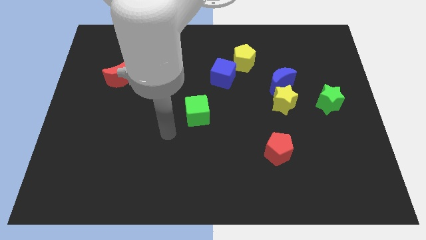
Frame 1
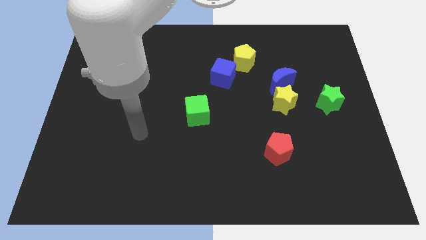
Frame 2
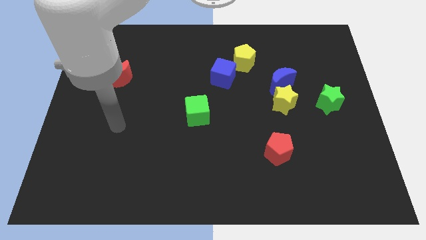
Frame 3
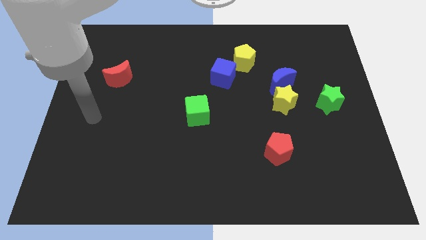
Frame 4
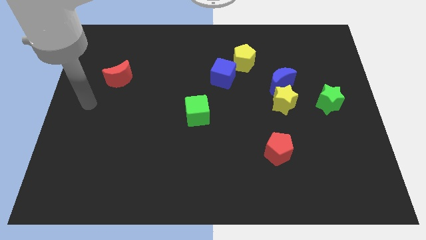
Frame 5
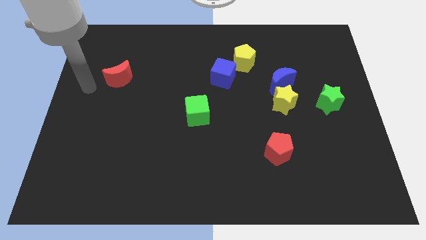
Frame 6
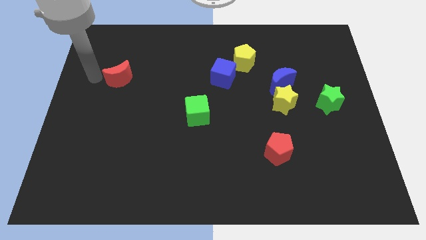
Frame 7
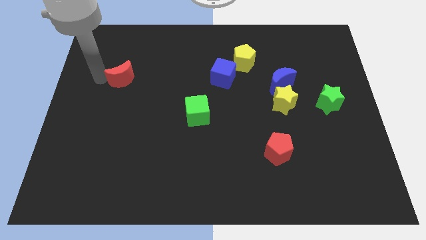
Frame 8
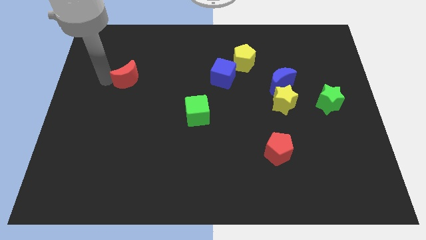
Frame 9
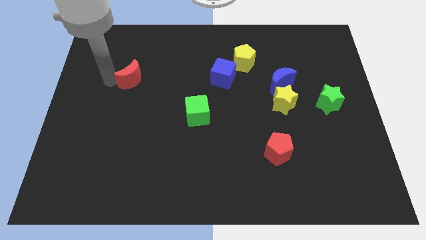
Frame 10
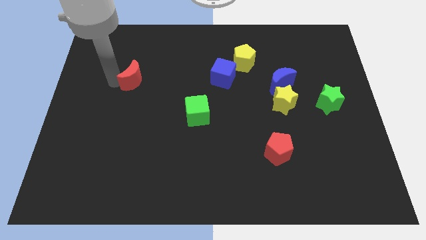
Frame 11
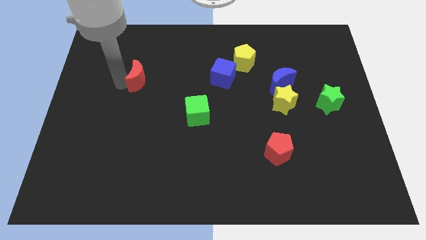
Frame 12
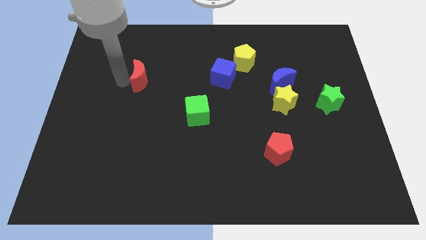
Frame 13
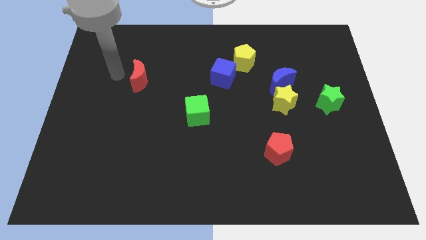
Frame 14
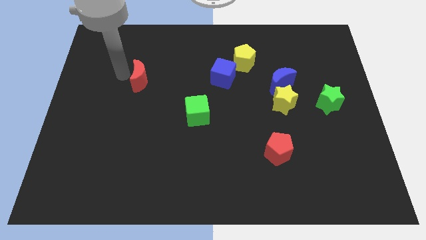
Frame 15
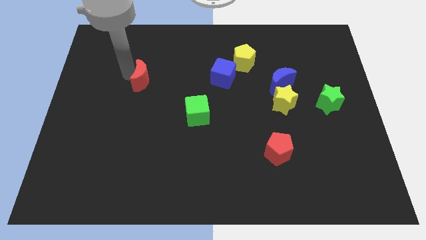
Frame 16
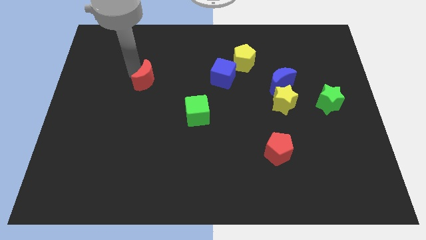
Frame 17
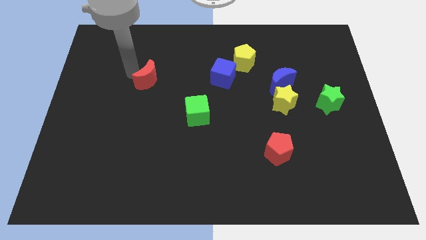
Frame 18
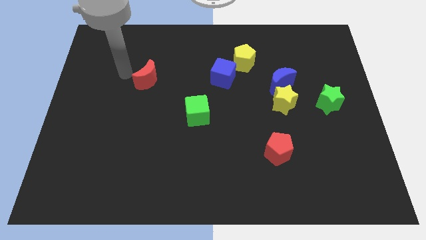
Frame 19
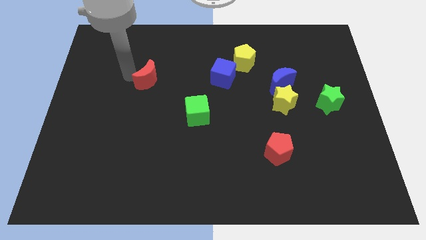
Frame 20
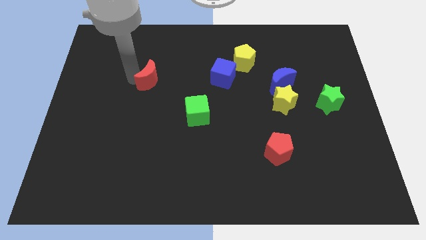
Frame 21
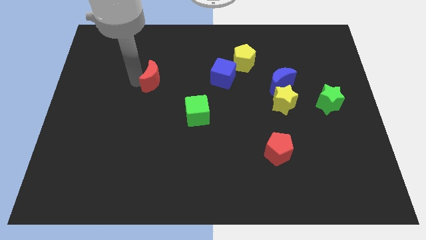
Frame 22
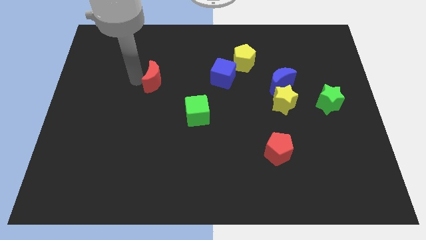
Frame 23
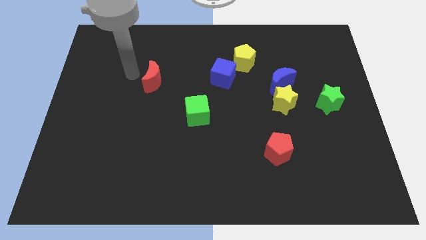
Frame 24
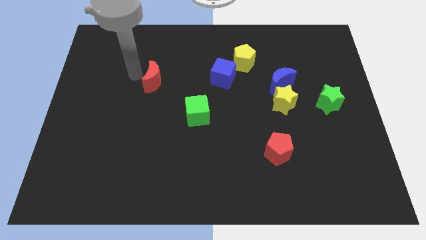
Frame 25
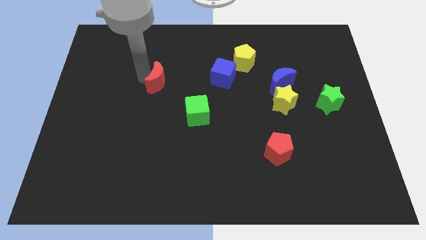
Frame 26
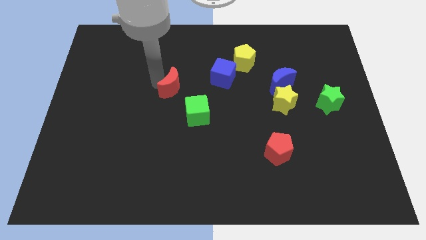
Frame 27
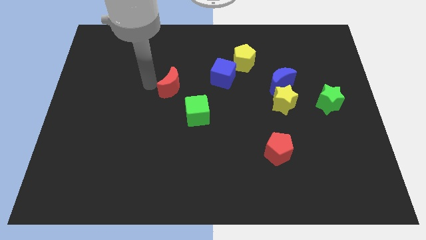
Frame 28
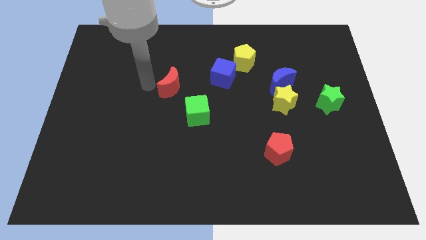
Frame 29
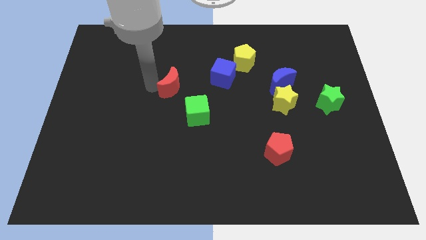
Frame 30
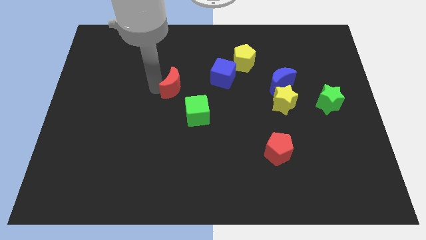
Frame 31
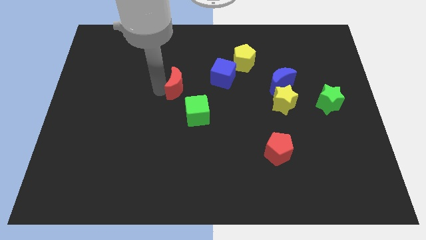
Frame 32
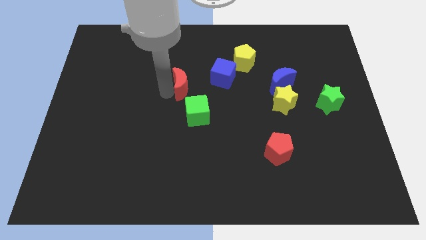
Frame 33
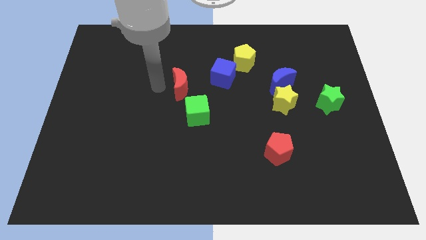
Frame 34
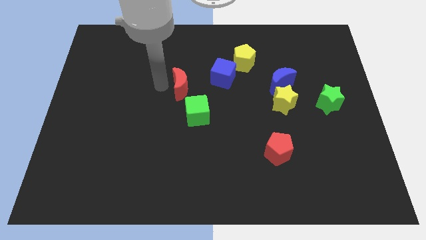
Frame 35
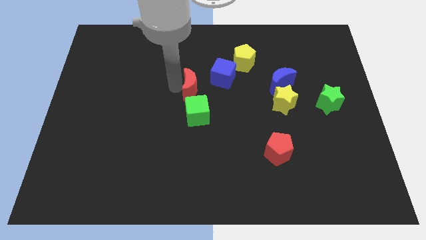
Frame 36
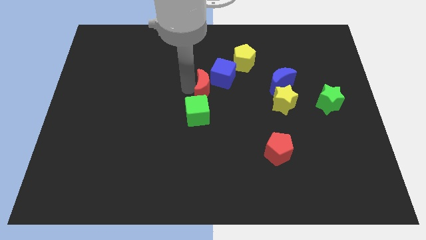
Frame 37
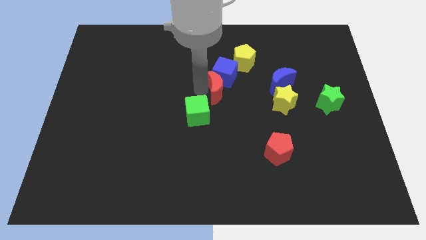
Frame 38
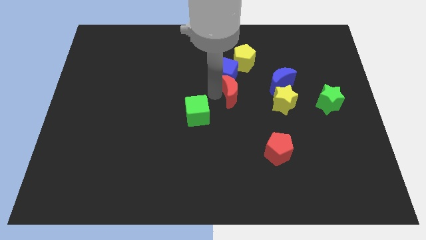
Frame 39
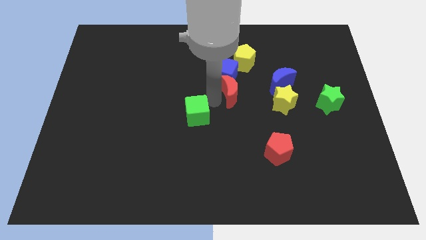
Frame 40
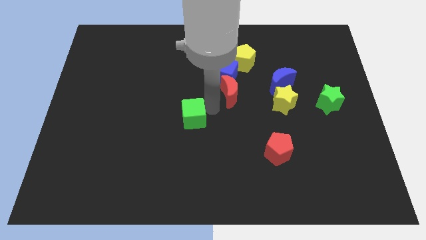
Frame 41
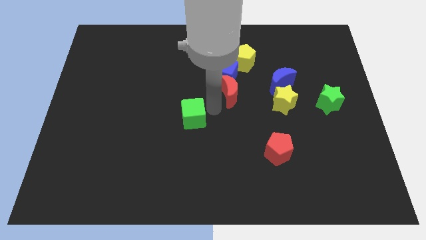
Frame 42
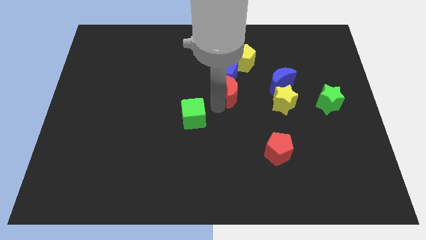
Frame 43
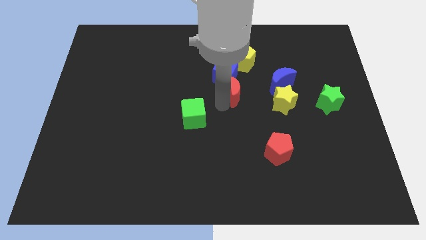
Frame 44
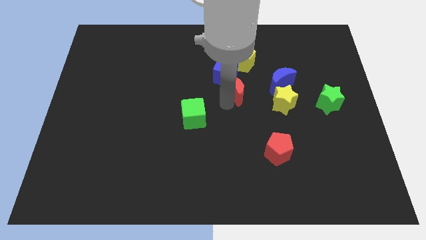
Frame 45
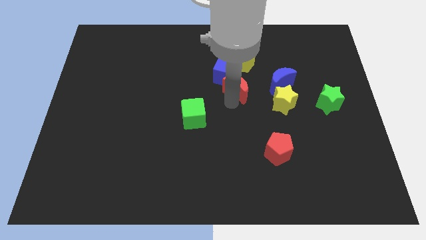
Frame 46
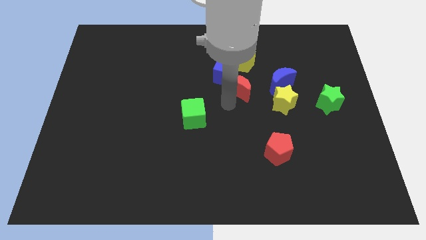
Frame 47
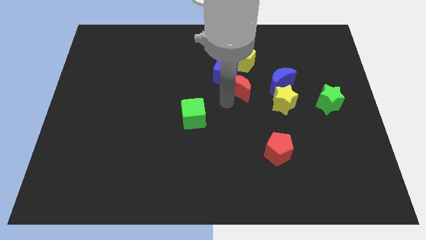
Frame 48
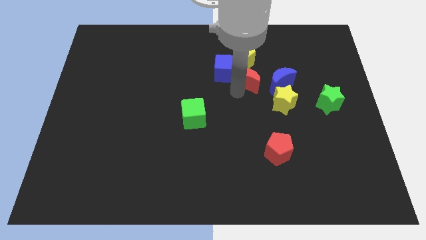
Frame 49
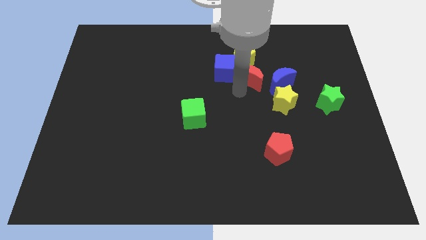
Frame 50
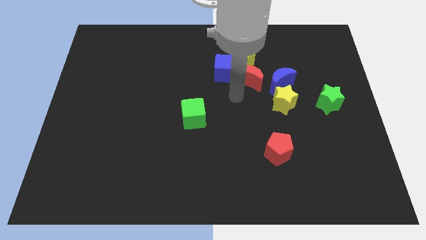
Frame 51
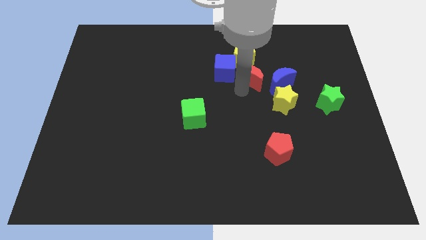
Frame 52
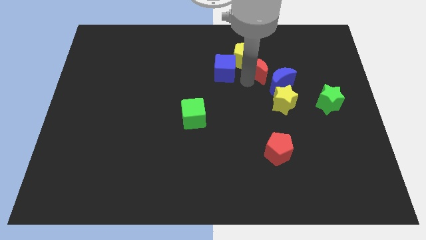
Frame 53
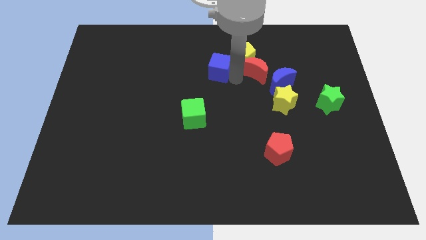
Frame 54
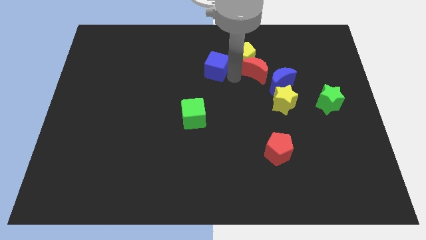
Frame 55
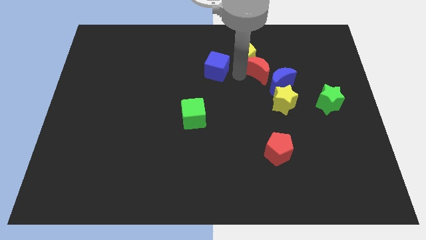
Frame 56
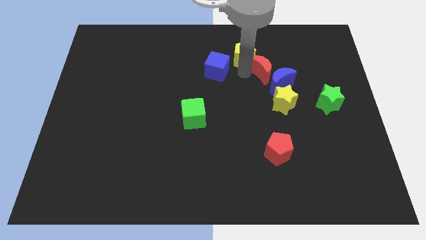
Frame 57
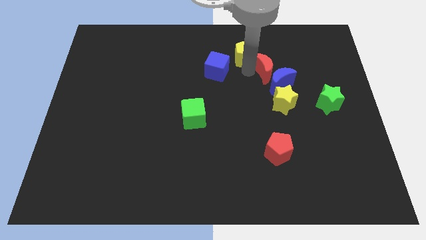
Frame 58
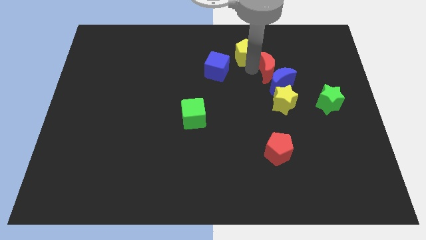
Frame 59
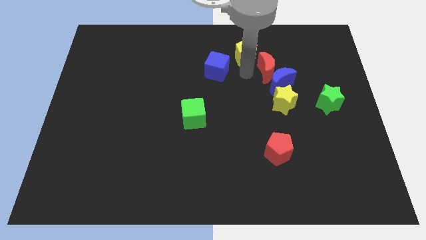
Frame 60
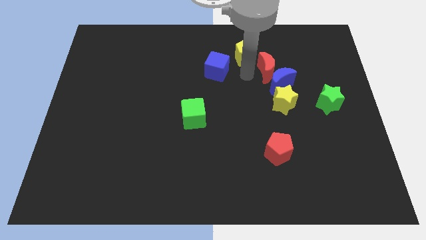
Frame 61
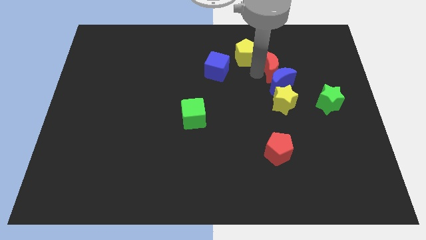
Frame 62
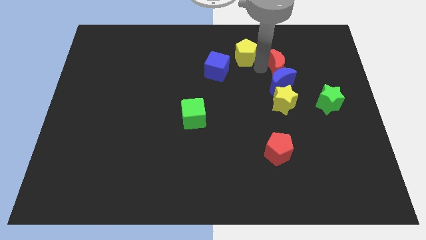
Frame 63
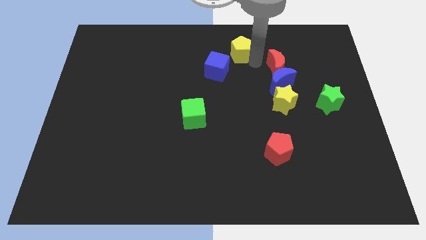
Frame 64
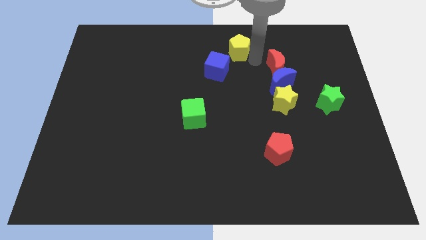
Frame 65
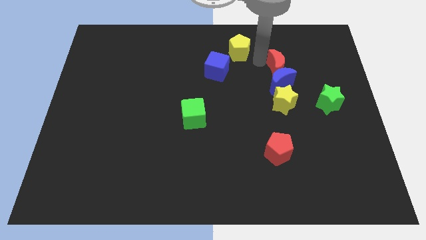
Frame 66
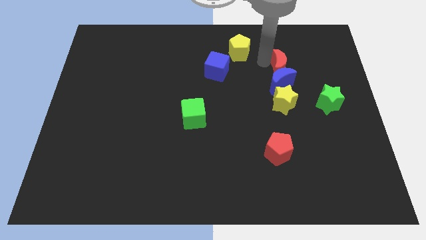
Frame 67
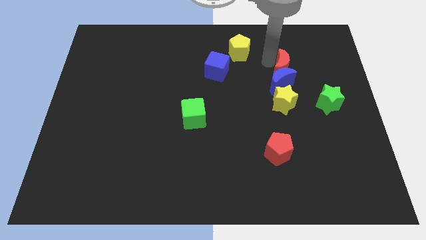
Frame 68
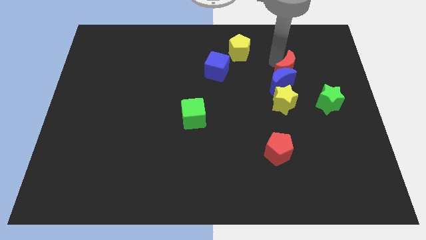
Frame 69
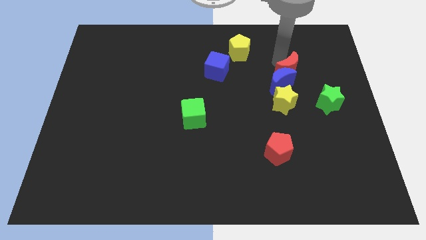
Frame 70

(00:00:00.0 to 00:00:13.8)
push the red moon to the right of the blue moon

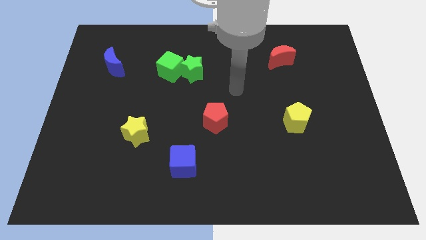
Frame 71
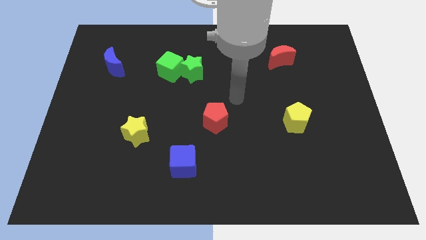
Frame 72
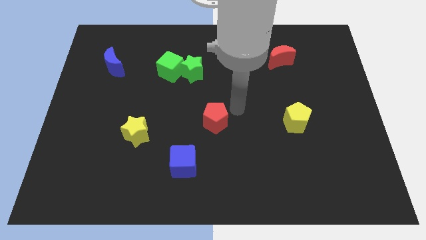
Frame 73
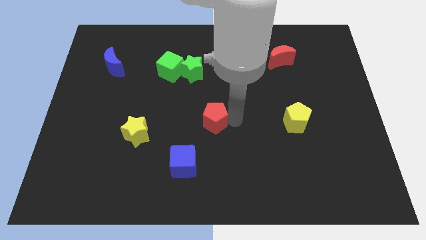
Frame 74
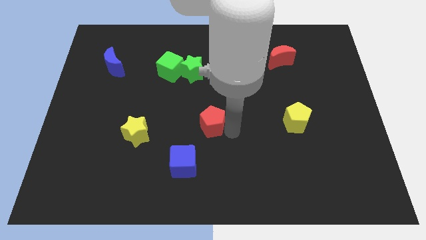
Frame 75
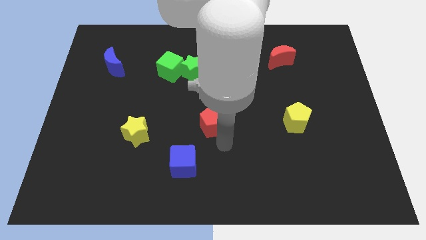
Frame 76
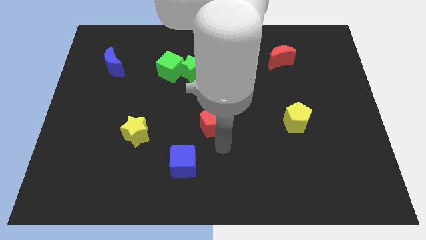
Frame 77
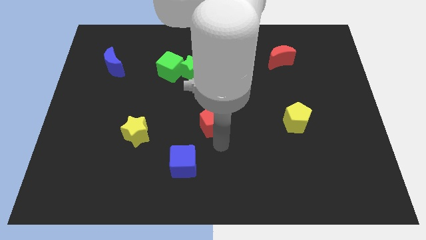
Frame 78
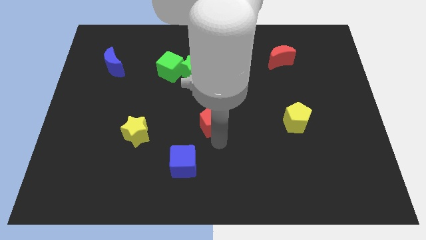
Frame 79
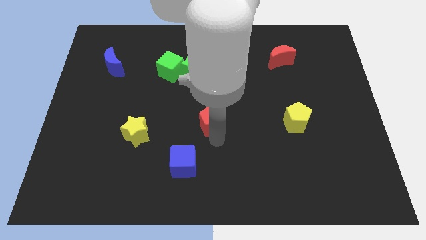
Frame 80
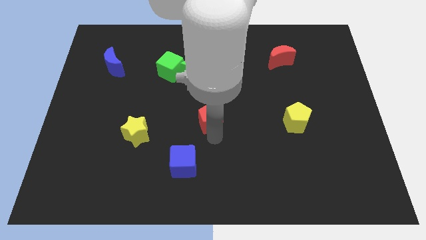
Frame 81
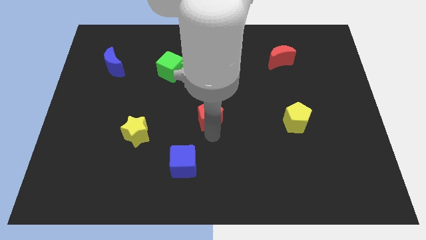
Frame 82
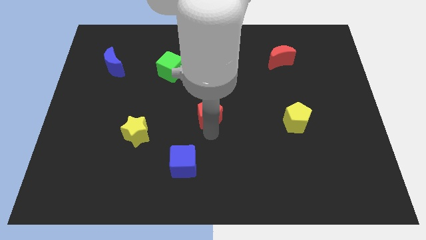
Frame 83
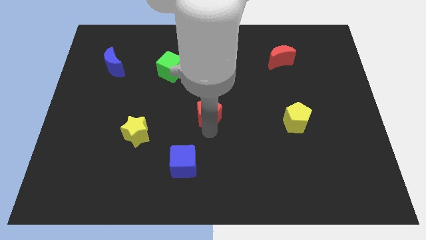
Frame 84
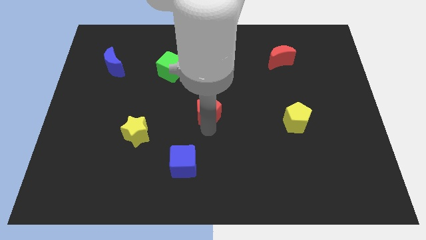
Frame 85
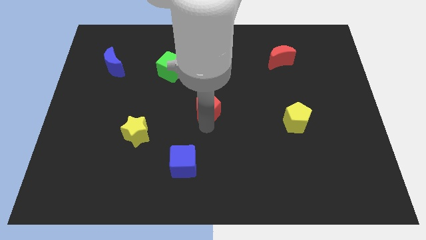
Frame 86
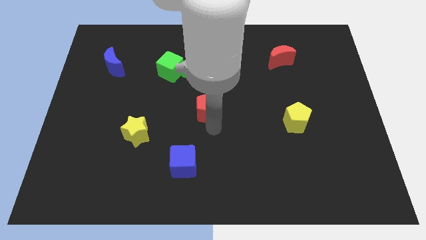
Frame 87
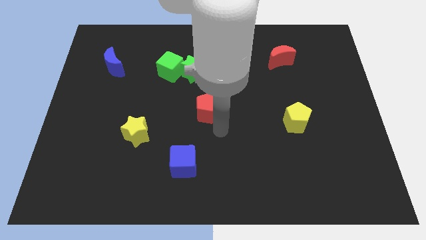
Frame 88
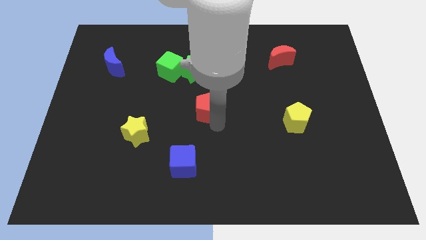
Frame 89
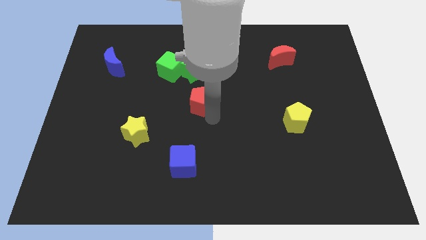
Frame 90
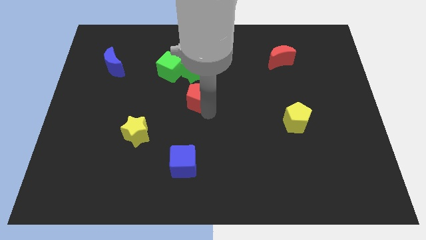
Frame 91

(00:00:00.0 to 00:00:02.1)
push the red pentagon to the bottom right side of the green cube
